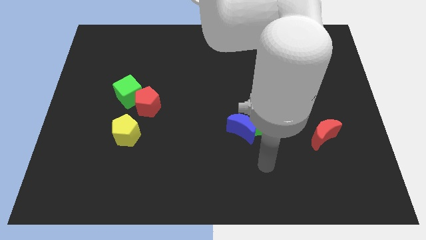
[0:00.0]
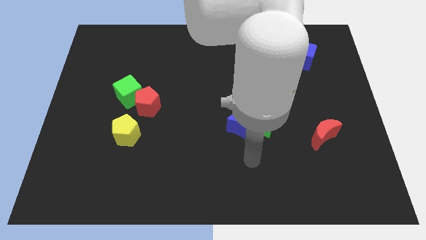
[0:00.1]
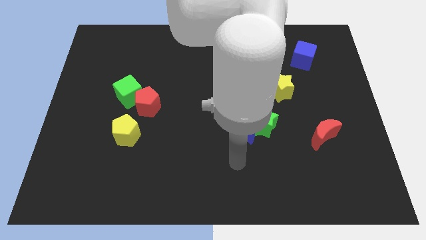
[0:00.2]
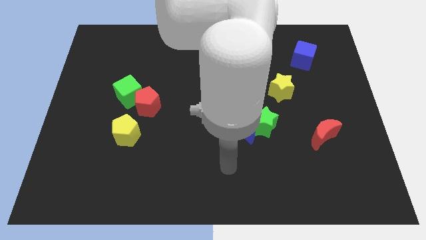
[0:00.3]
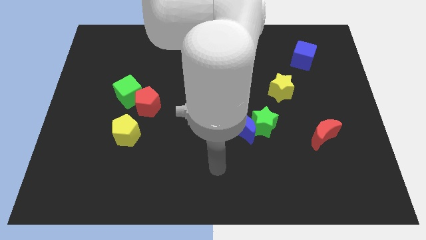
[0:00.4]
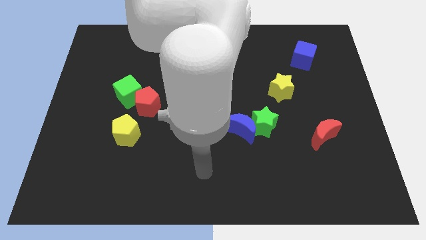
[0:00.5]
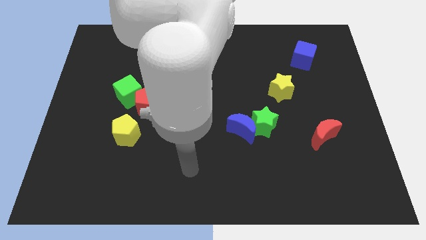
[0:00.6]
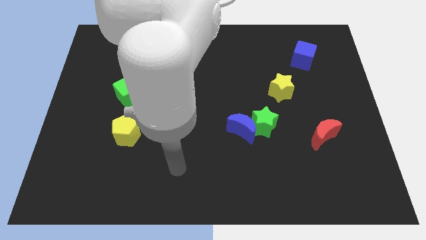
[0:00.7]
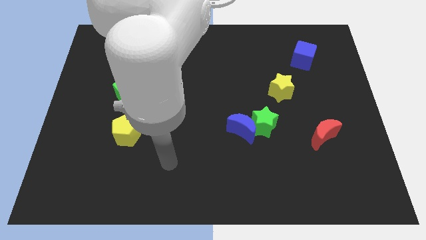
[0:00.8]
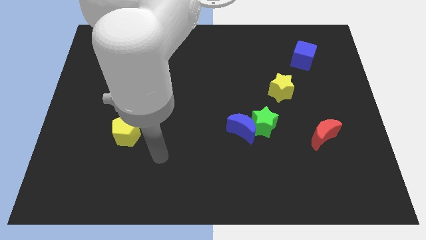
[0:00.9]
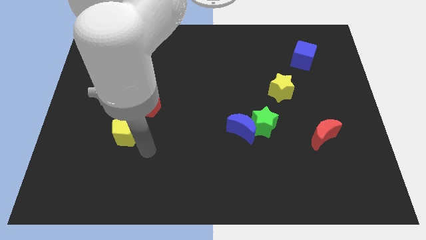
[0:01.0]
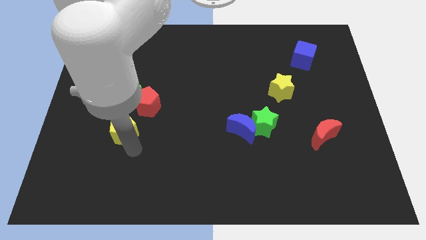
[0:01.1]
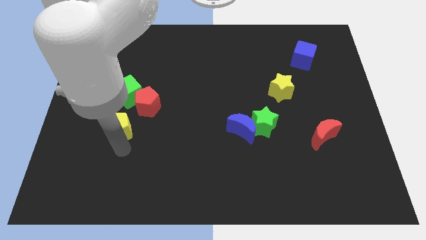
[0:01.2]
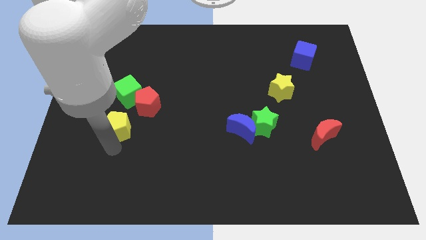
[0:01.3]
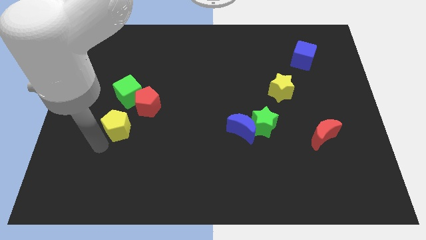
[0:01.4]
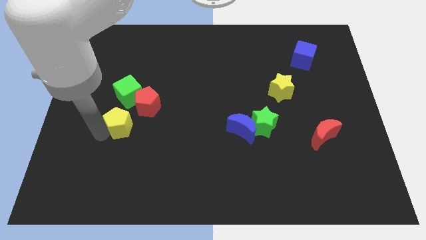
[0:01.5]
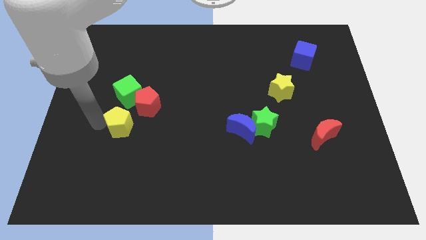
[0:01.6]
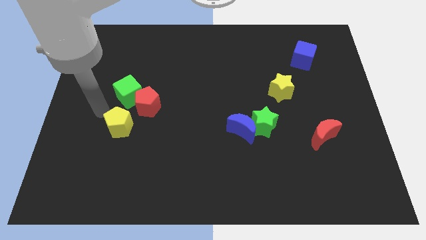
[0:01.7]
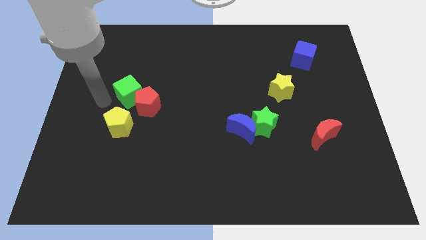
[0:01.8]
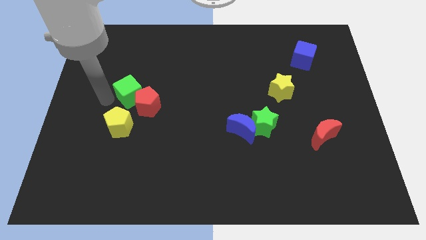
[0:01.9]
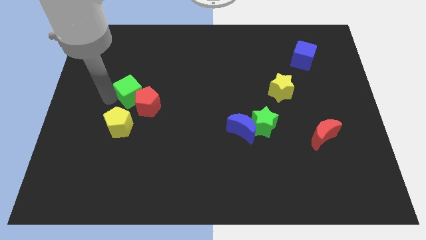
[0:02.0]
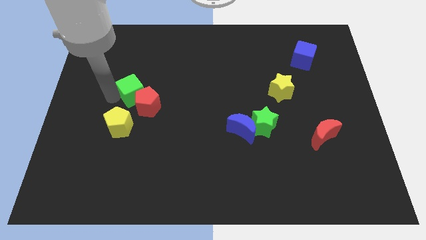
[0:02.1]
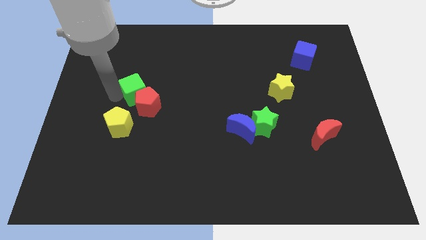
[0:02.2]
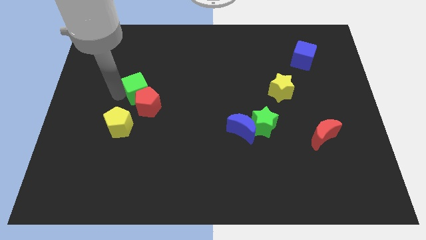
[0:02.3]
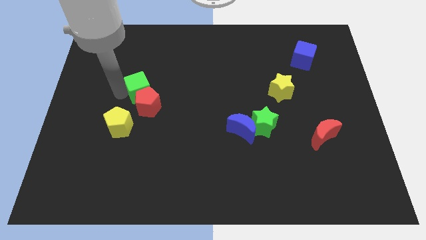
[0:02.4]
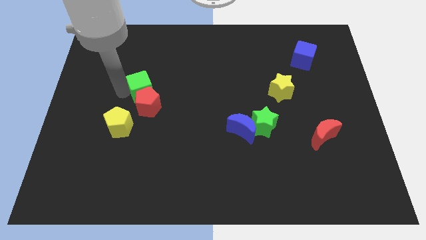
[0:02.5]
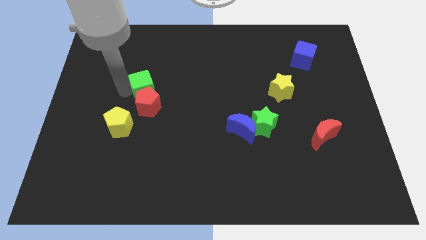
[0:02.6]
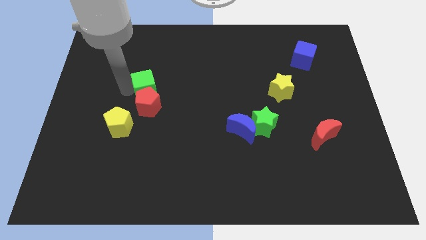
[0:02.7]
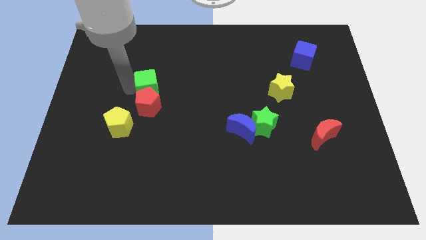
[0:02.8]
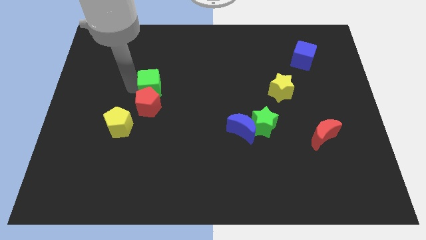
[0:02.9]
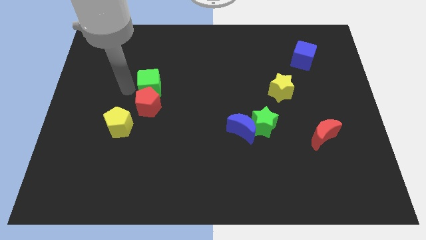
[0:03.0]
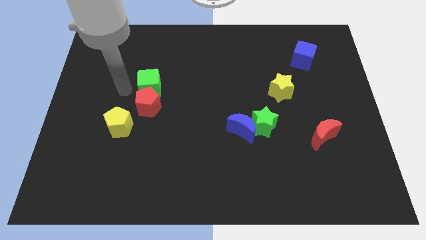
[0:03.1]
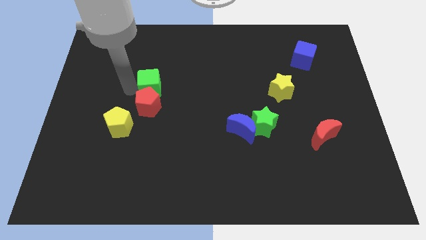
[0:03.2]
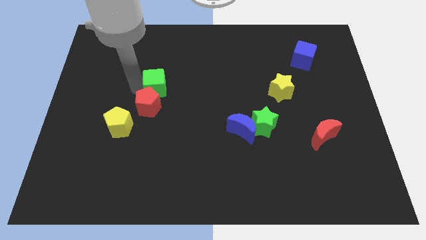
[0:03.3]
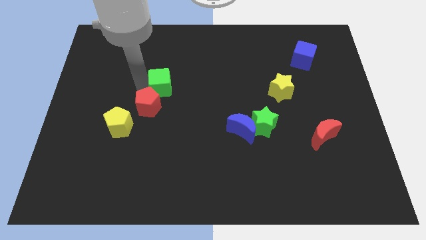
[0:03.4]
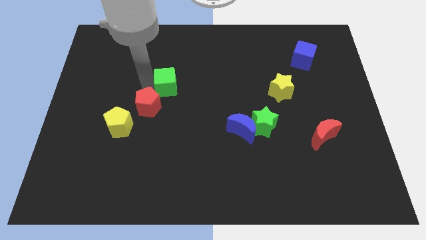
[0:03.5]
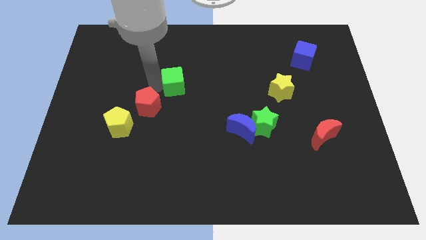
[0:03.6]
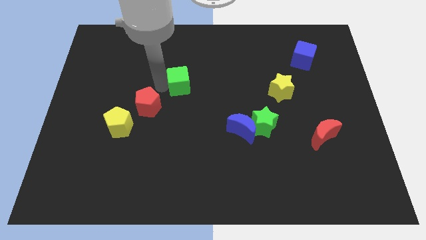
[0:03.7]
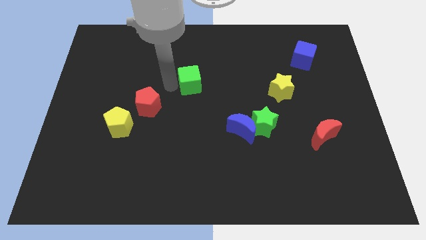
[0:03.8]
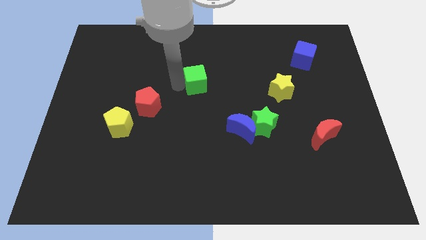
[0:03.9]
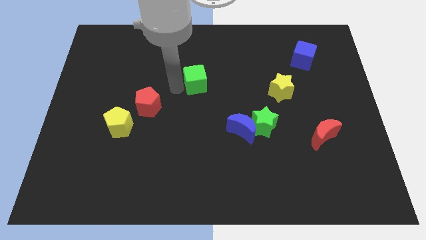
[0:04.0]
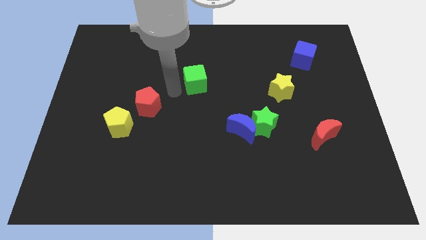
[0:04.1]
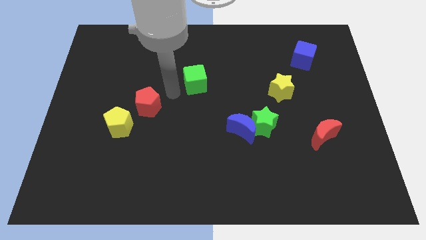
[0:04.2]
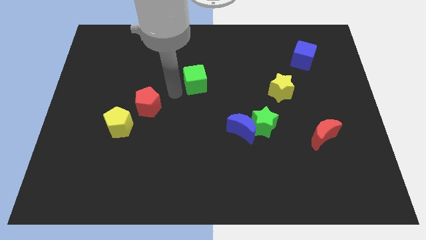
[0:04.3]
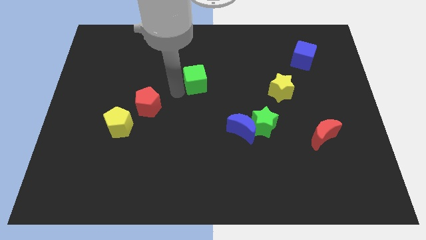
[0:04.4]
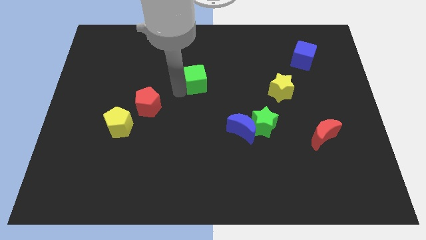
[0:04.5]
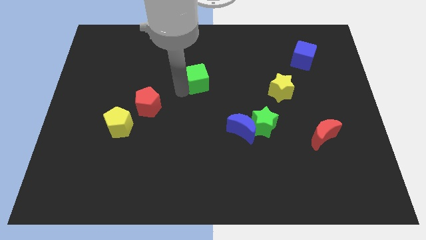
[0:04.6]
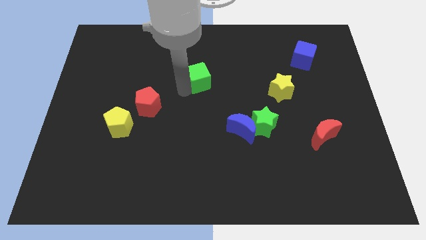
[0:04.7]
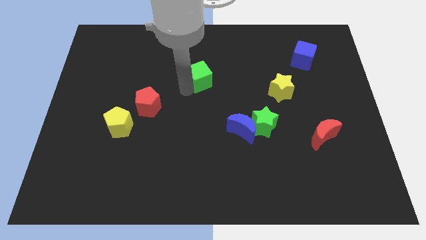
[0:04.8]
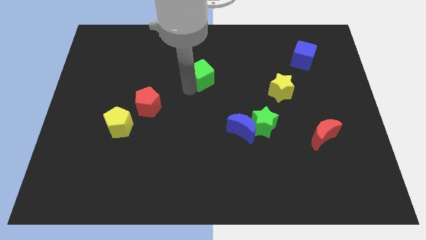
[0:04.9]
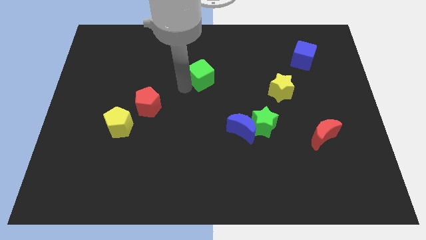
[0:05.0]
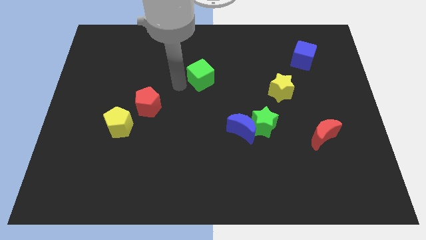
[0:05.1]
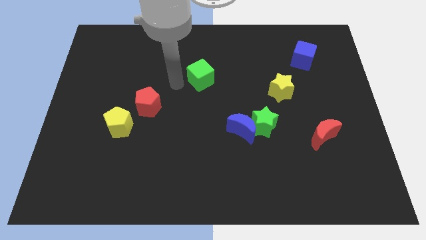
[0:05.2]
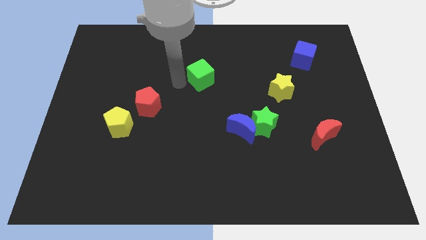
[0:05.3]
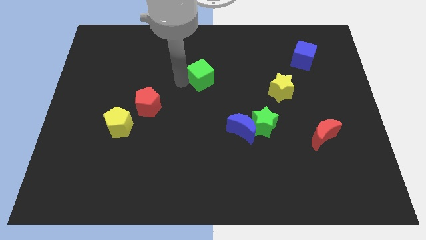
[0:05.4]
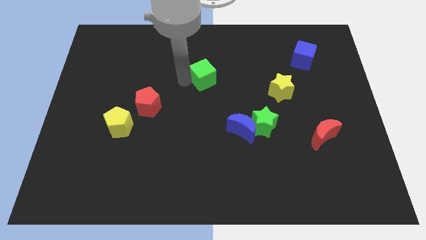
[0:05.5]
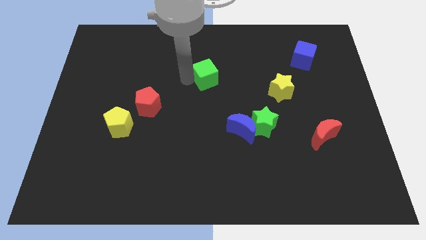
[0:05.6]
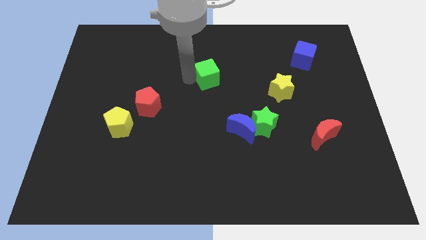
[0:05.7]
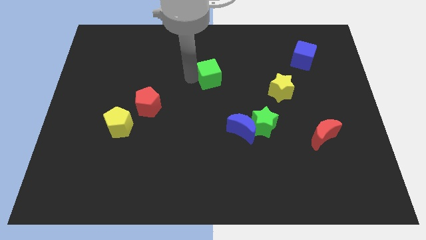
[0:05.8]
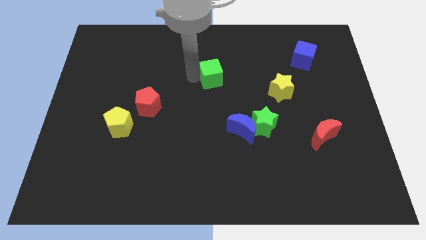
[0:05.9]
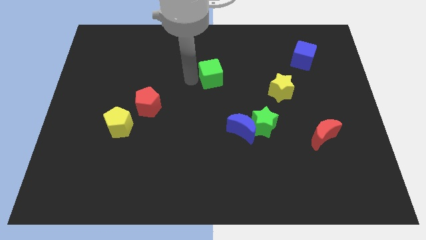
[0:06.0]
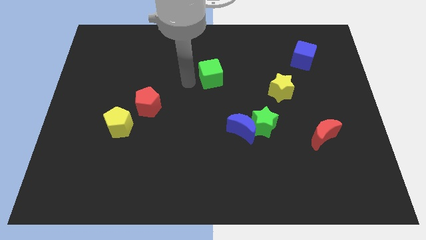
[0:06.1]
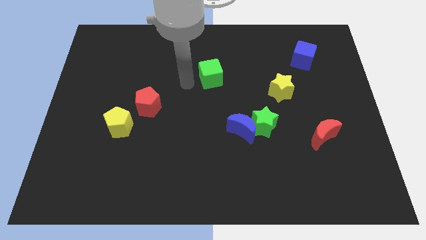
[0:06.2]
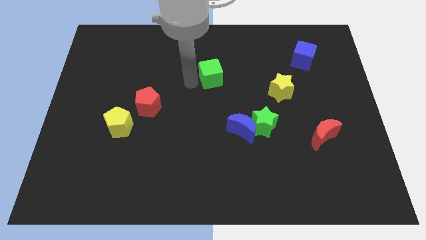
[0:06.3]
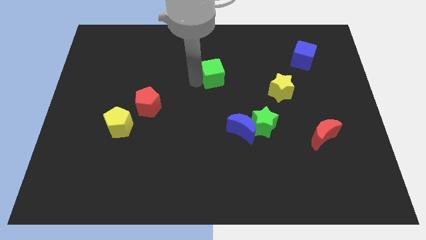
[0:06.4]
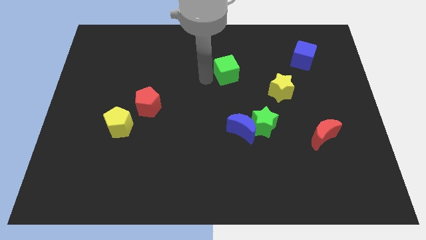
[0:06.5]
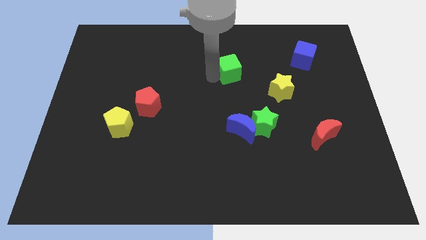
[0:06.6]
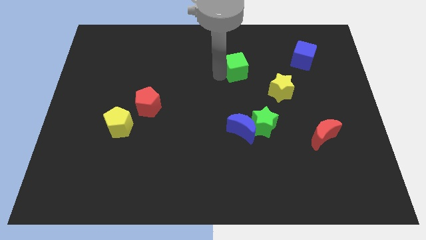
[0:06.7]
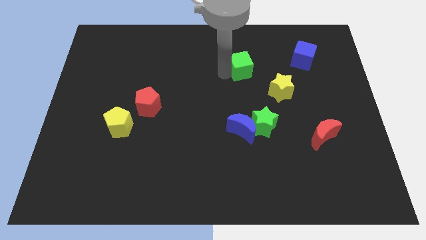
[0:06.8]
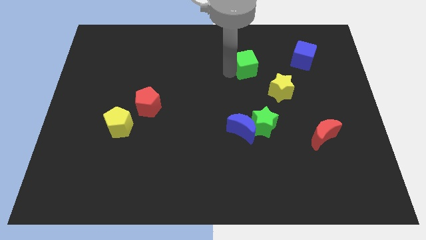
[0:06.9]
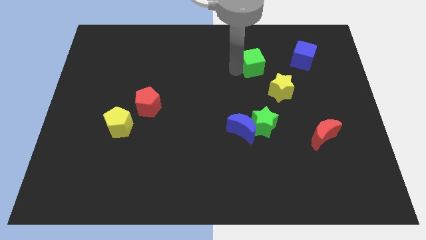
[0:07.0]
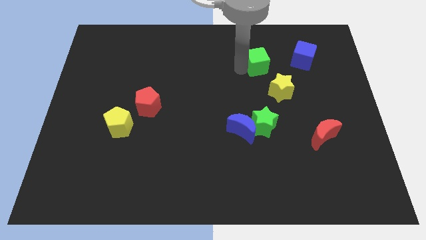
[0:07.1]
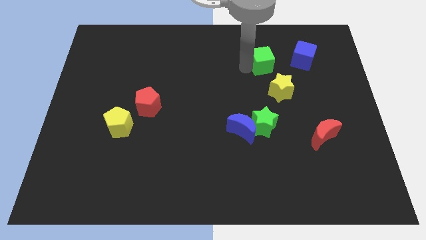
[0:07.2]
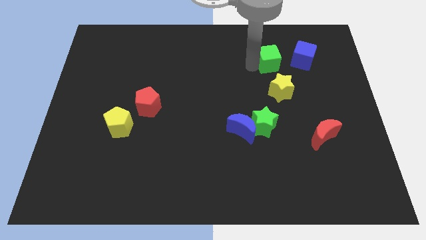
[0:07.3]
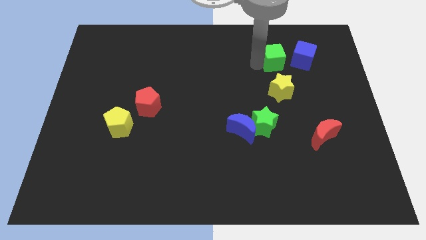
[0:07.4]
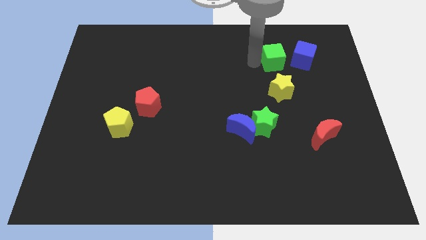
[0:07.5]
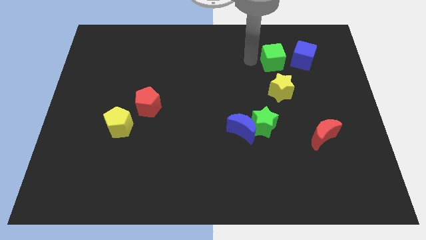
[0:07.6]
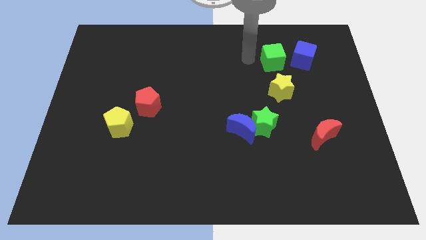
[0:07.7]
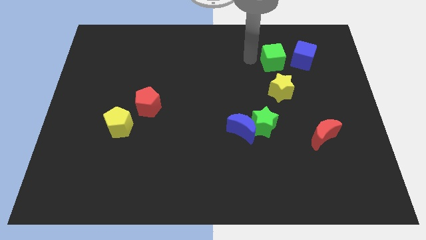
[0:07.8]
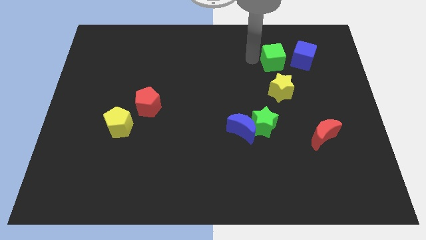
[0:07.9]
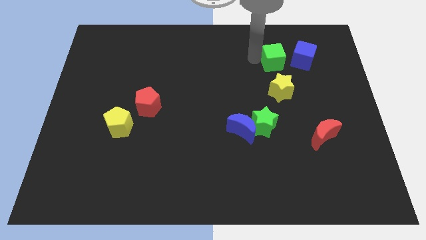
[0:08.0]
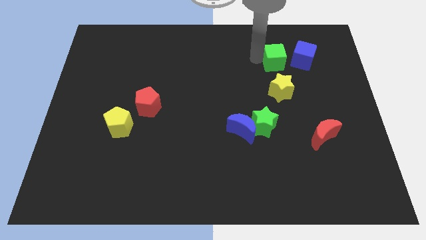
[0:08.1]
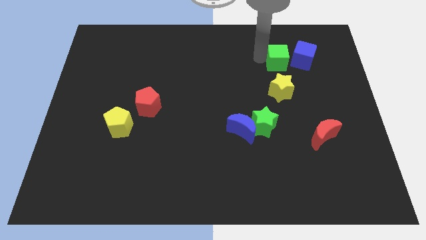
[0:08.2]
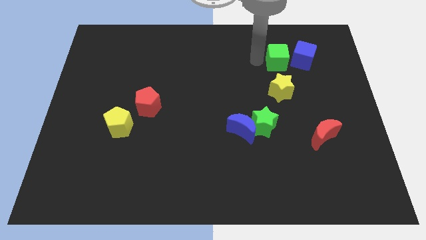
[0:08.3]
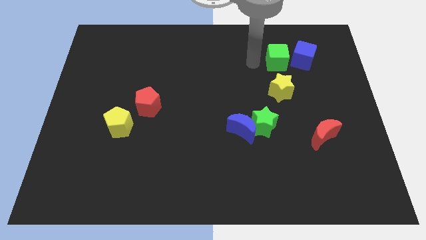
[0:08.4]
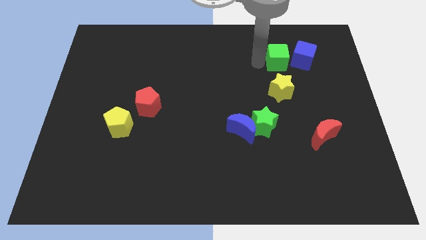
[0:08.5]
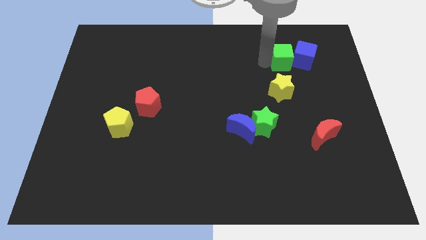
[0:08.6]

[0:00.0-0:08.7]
push the green cube close to the blue cube
